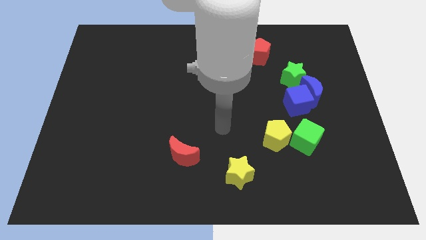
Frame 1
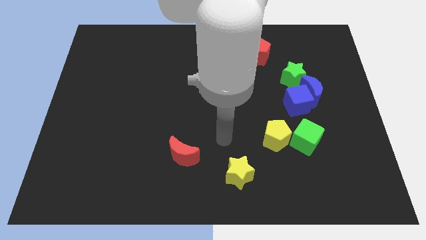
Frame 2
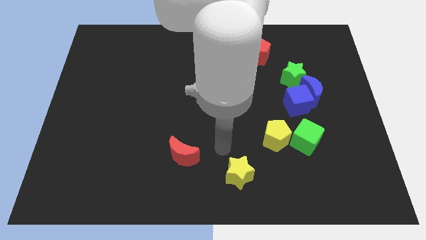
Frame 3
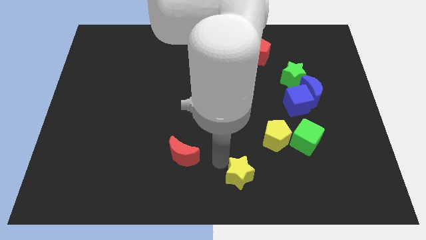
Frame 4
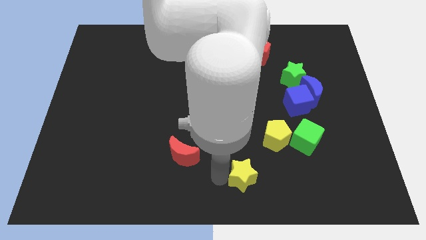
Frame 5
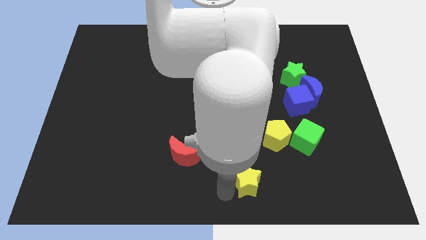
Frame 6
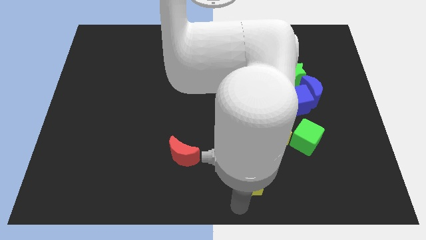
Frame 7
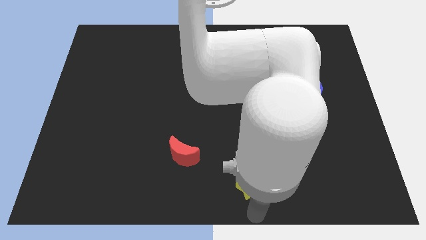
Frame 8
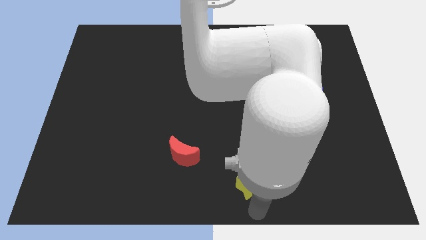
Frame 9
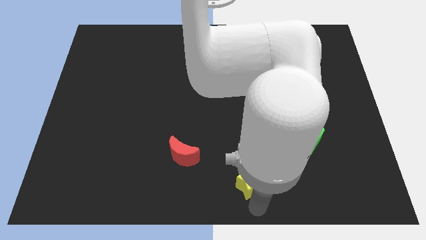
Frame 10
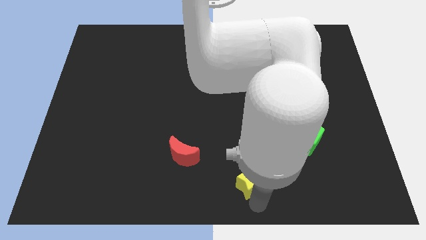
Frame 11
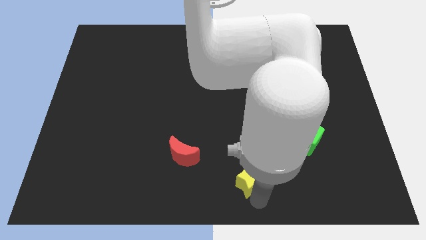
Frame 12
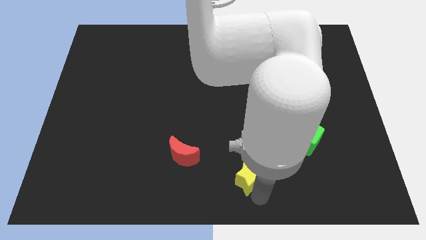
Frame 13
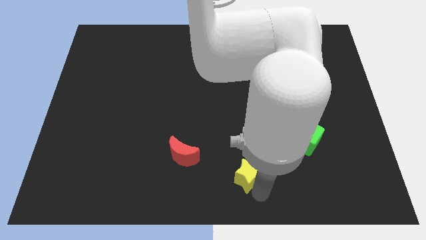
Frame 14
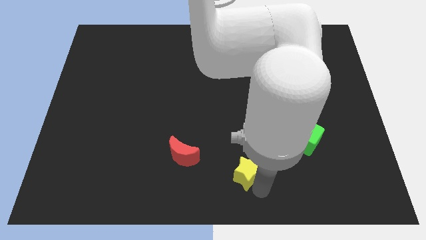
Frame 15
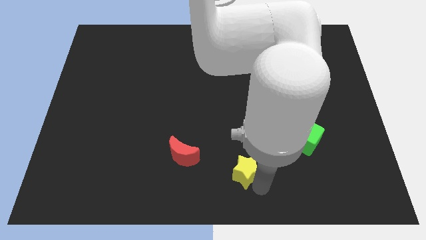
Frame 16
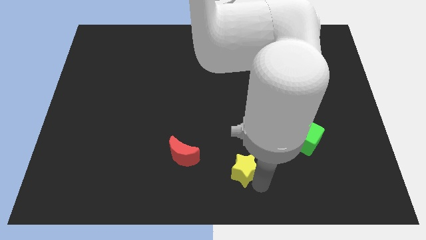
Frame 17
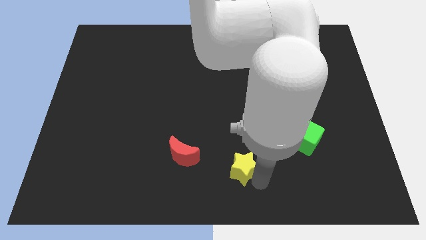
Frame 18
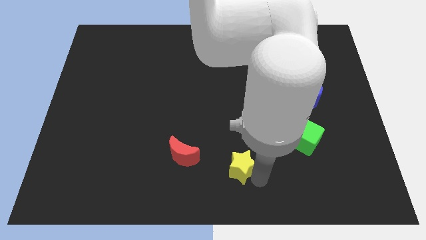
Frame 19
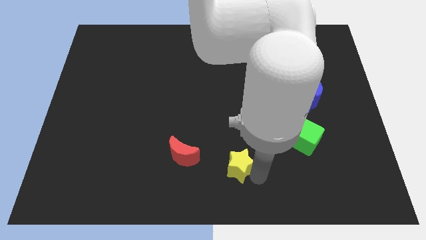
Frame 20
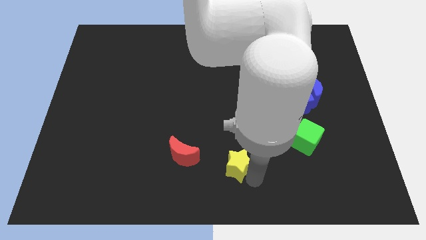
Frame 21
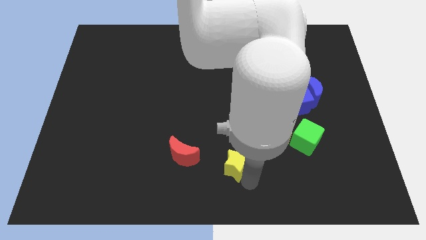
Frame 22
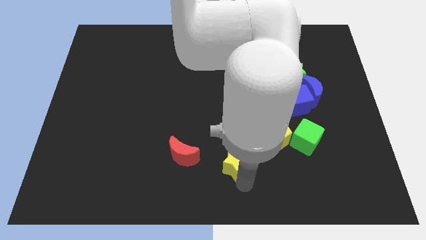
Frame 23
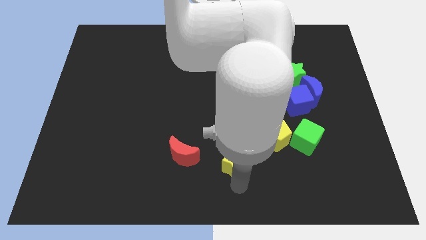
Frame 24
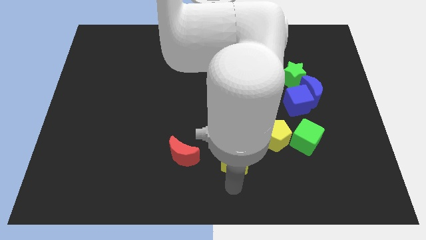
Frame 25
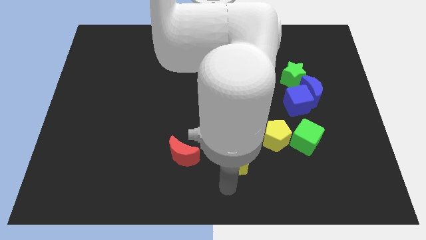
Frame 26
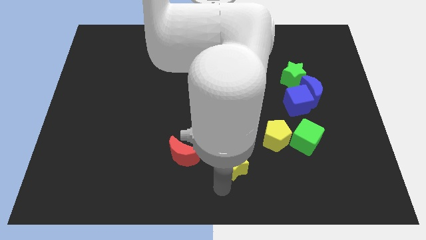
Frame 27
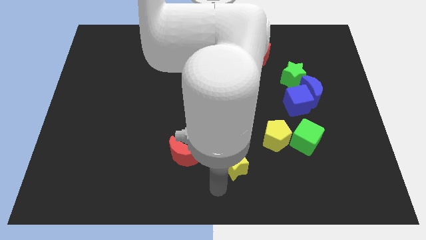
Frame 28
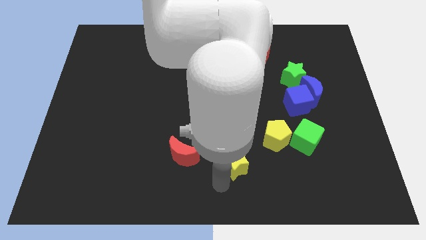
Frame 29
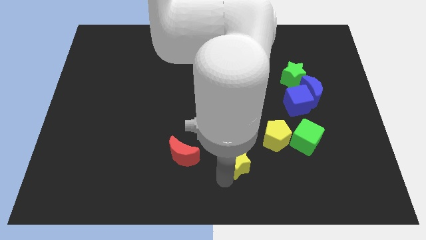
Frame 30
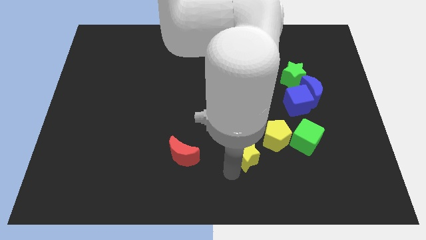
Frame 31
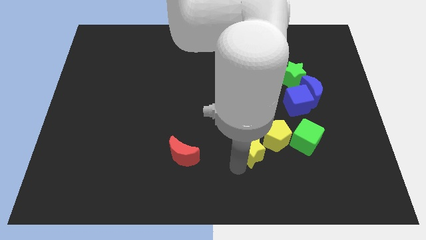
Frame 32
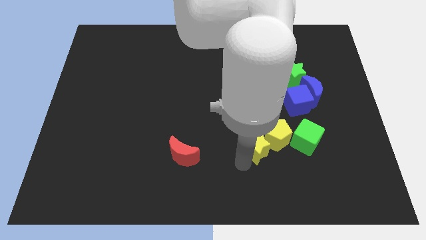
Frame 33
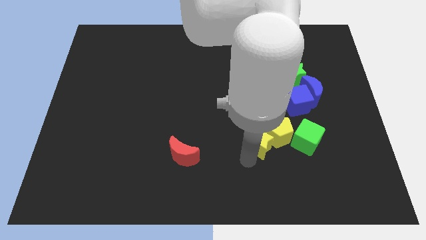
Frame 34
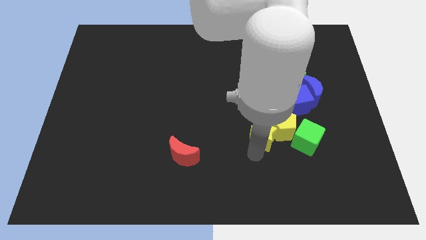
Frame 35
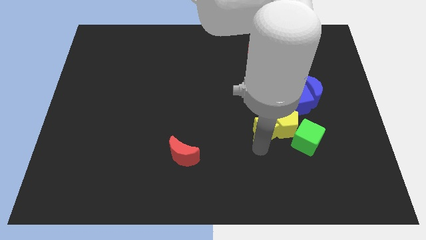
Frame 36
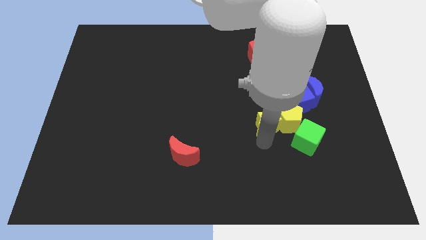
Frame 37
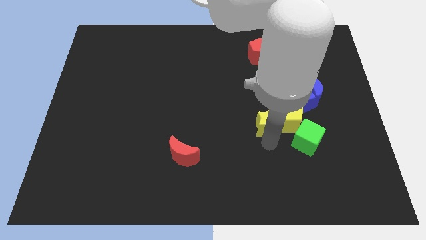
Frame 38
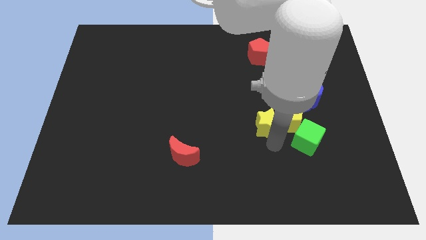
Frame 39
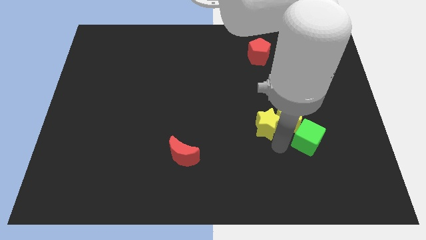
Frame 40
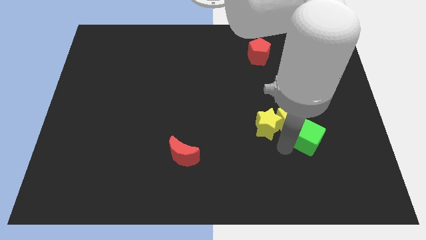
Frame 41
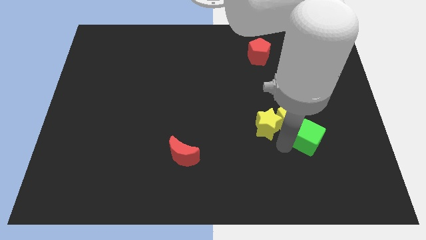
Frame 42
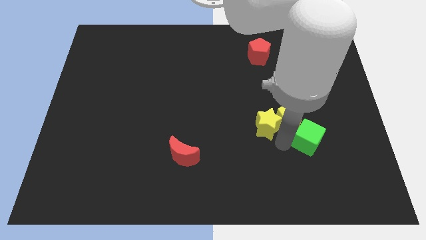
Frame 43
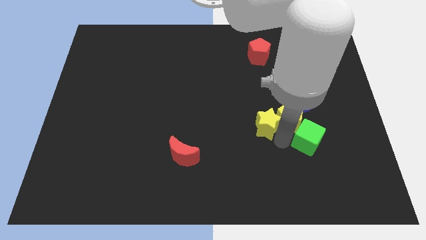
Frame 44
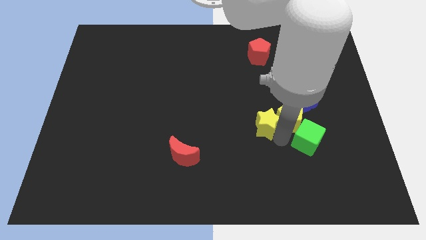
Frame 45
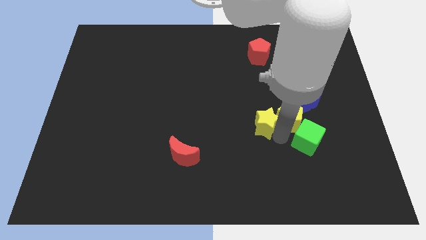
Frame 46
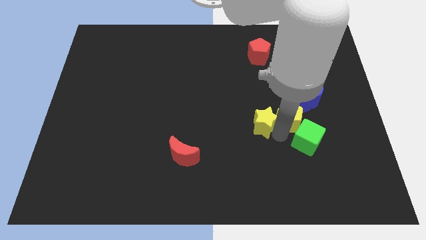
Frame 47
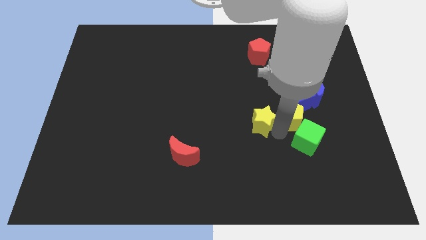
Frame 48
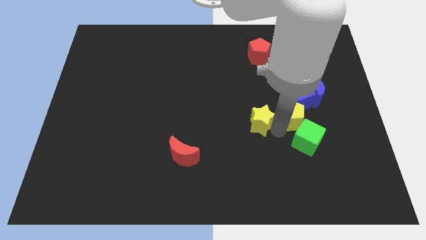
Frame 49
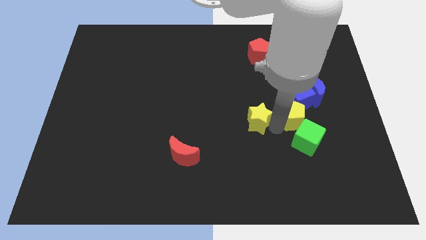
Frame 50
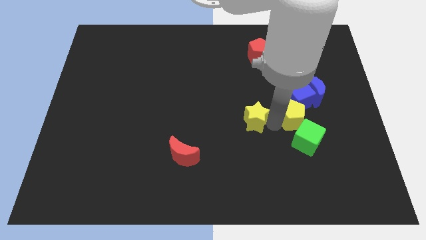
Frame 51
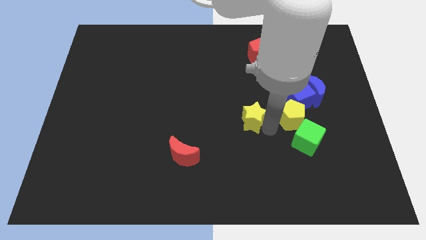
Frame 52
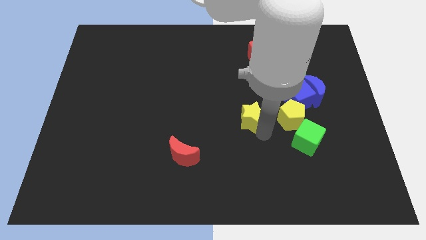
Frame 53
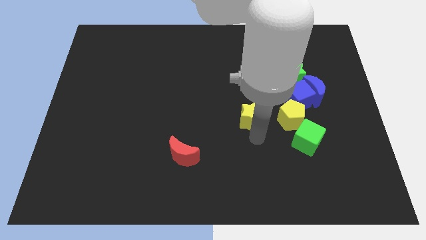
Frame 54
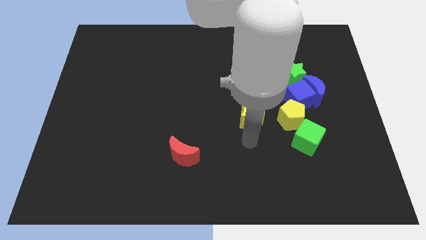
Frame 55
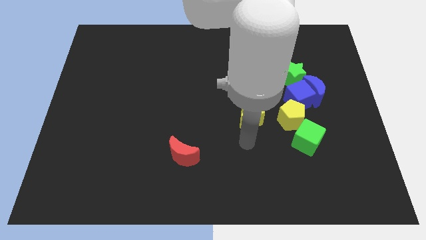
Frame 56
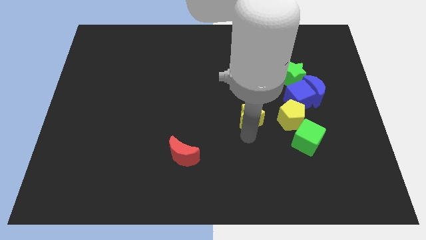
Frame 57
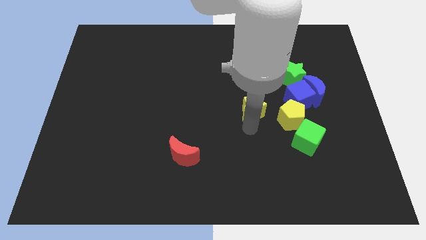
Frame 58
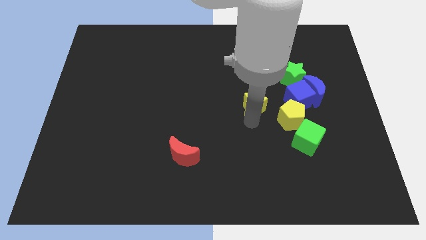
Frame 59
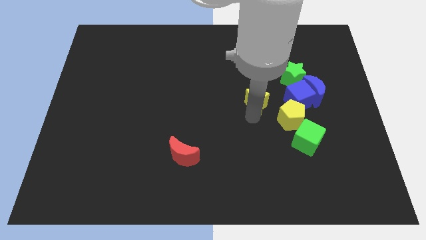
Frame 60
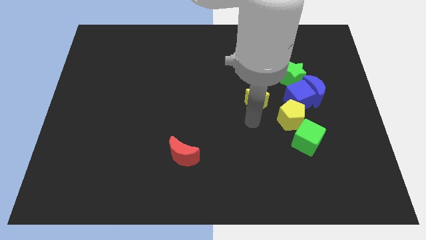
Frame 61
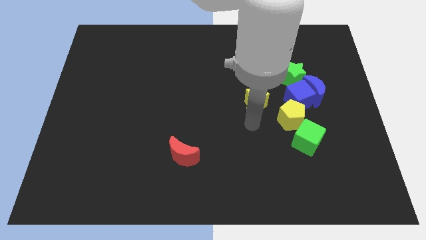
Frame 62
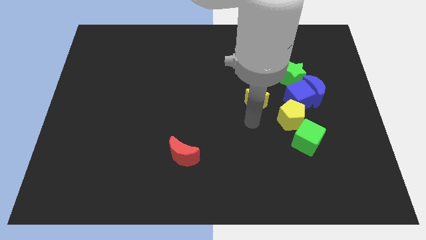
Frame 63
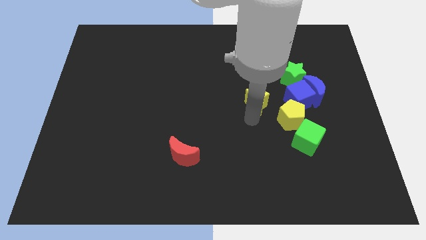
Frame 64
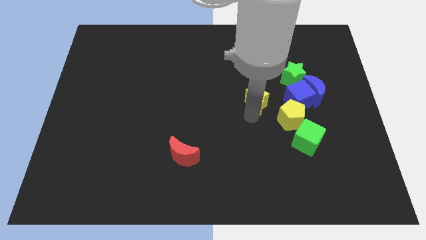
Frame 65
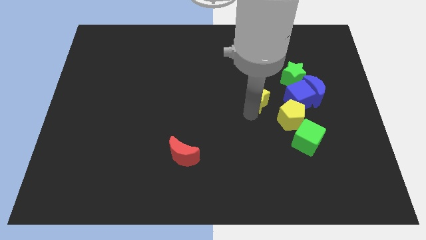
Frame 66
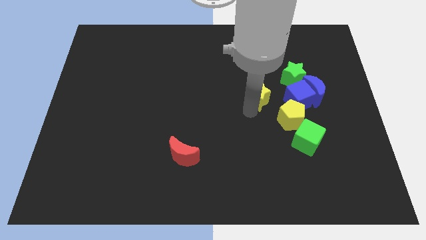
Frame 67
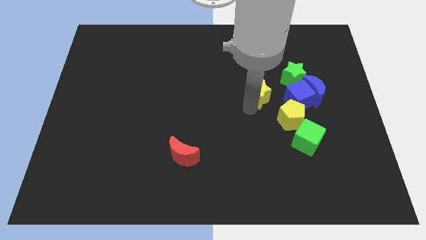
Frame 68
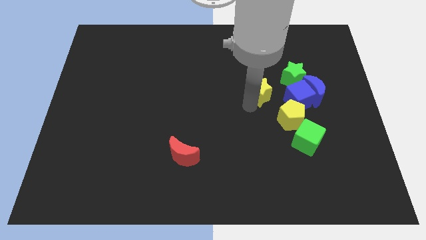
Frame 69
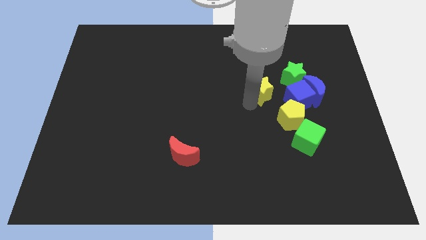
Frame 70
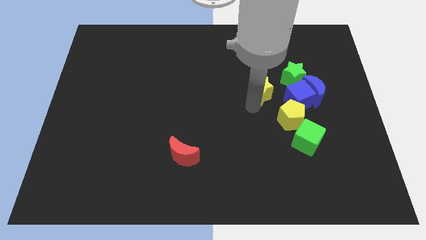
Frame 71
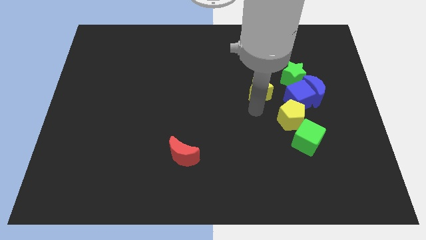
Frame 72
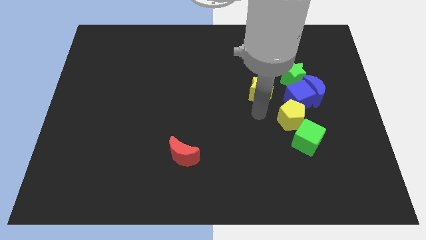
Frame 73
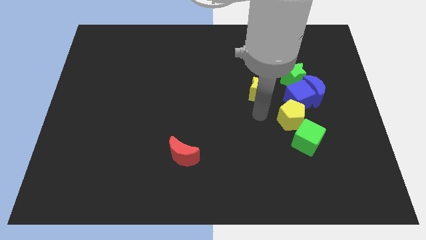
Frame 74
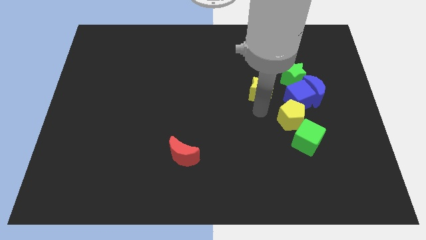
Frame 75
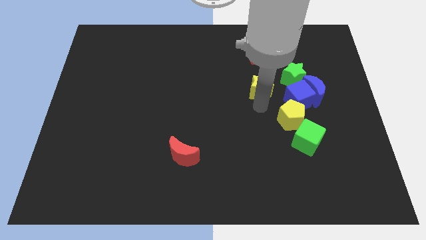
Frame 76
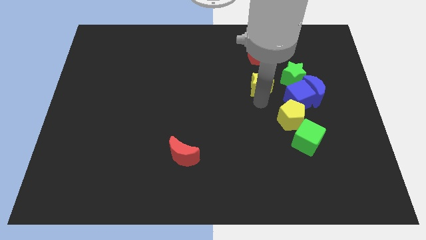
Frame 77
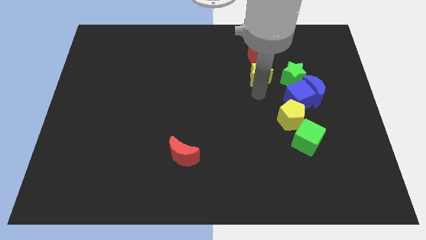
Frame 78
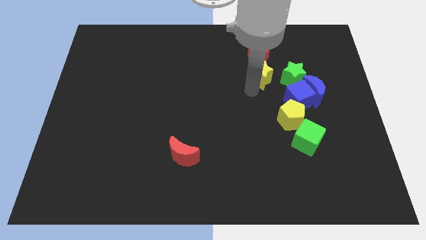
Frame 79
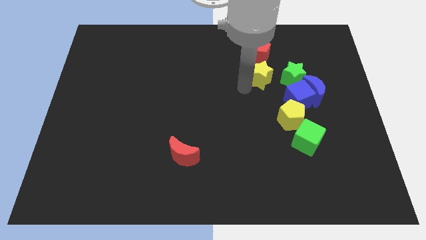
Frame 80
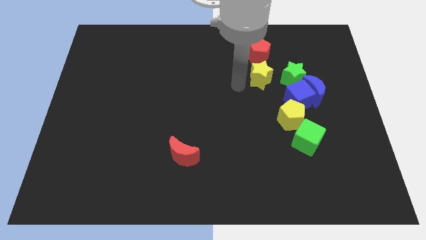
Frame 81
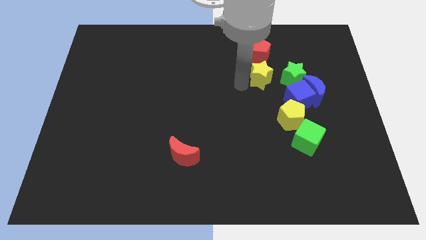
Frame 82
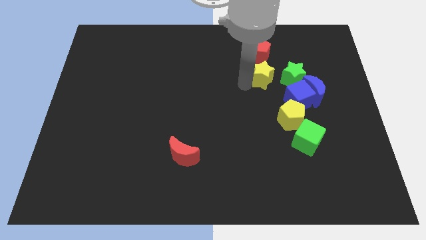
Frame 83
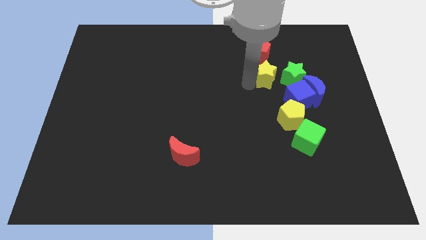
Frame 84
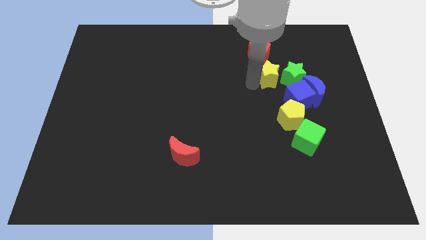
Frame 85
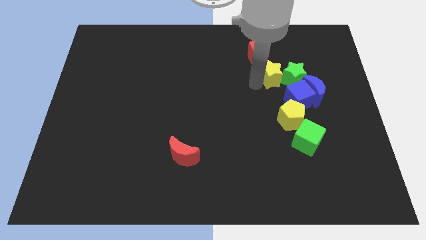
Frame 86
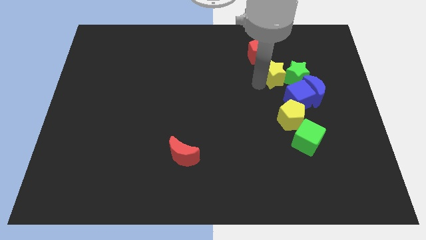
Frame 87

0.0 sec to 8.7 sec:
slide the yellow star to the top of the blue cube
